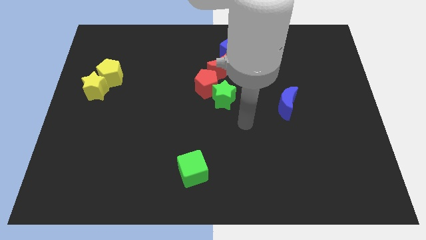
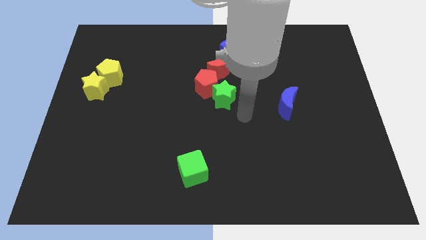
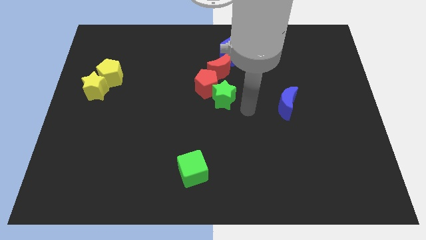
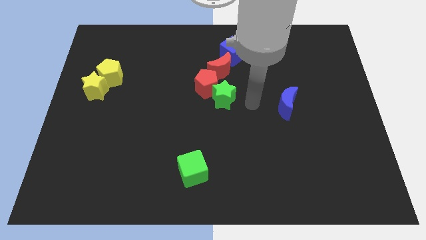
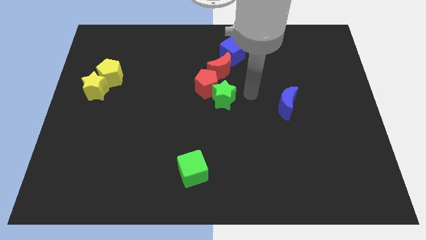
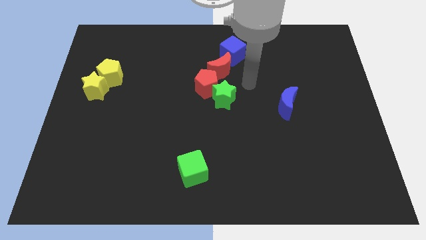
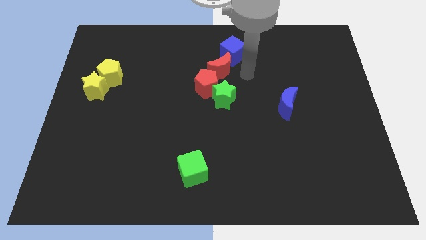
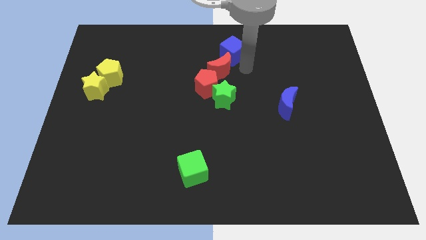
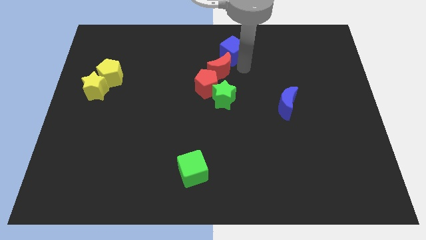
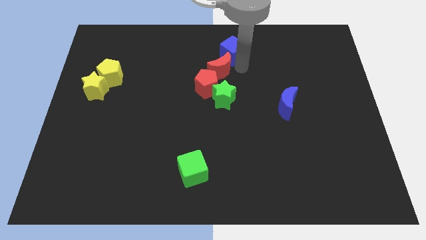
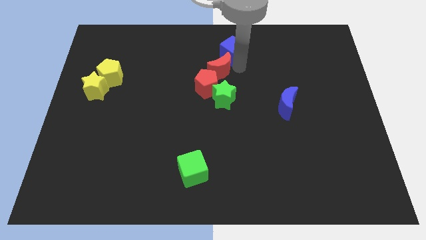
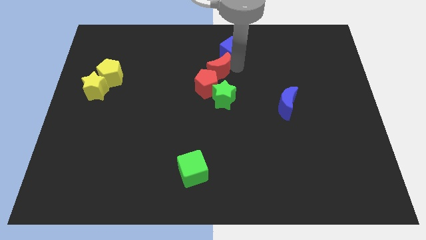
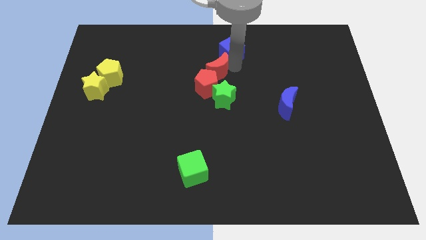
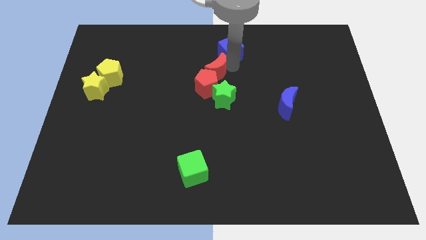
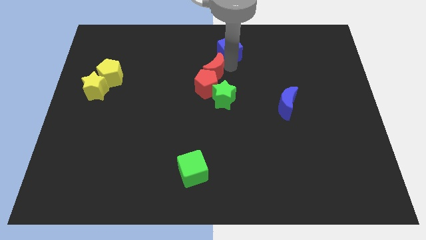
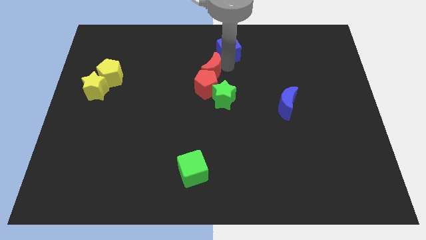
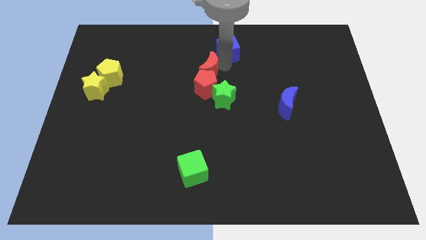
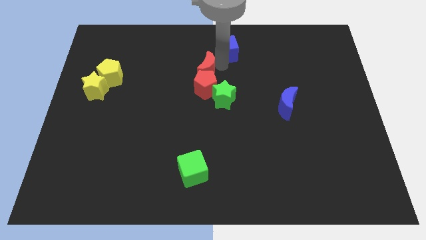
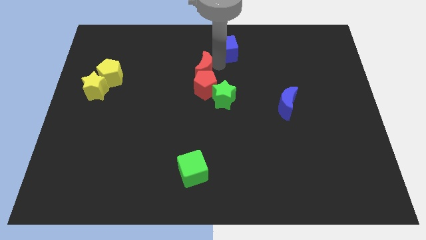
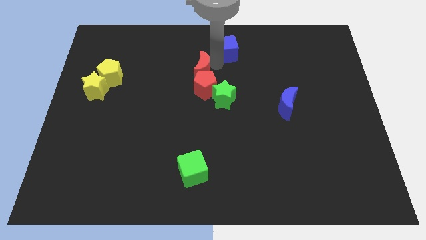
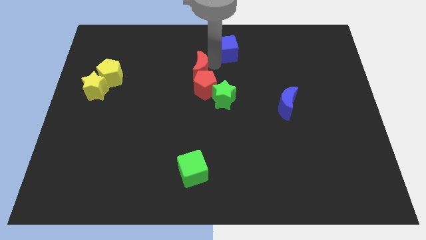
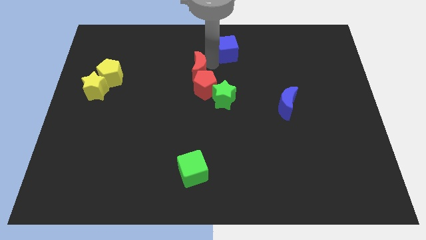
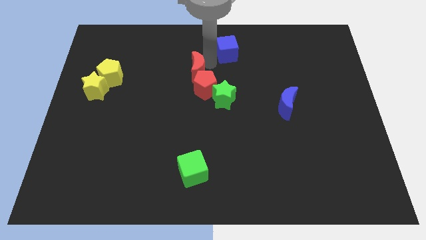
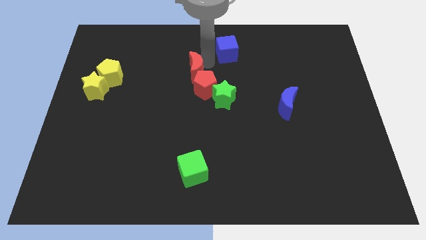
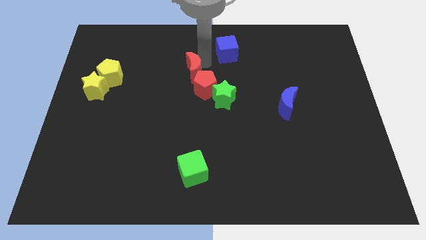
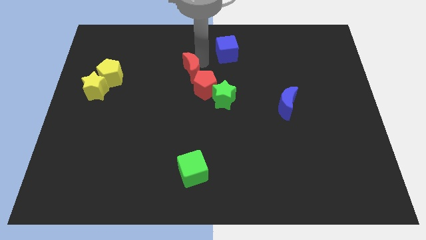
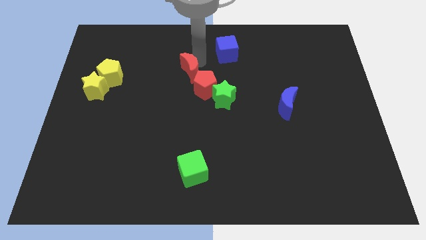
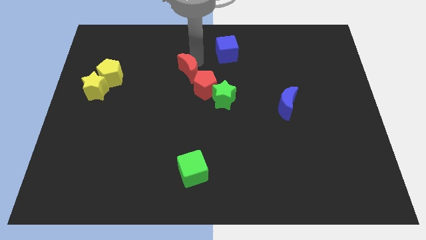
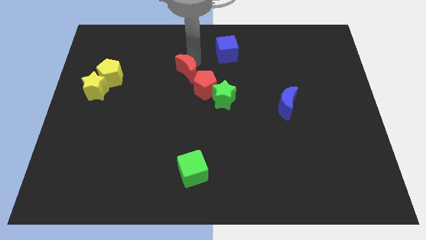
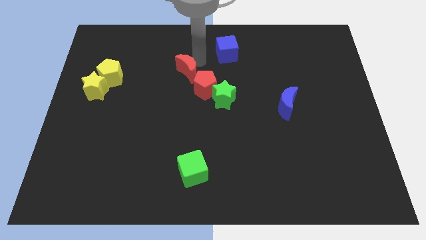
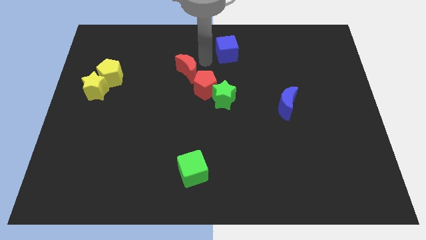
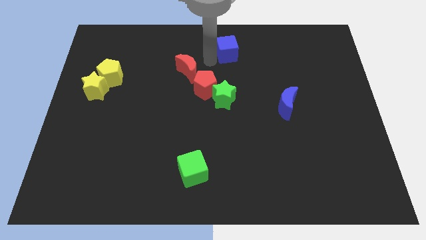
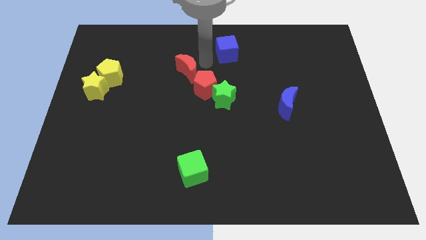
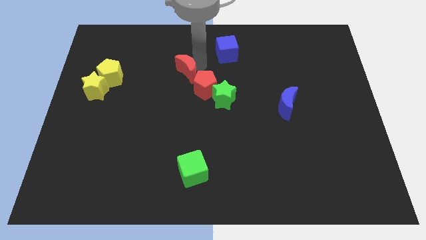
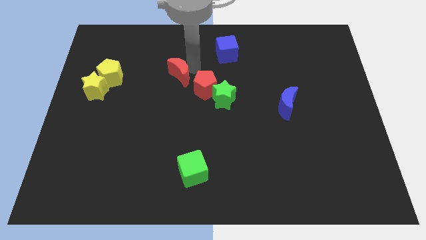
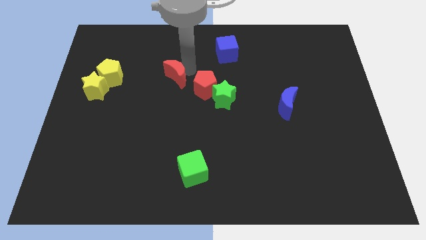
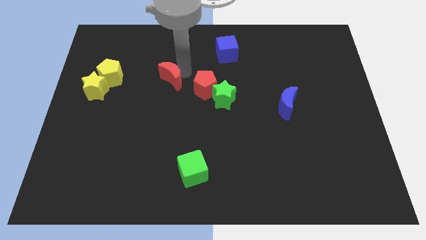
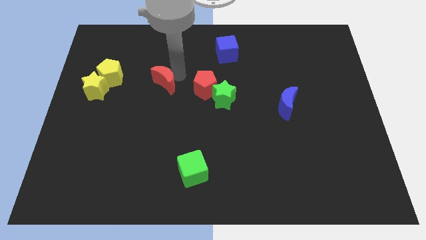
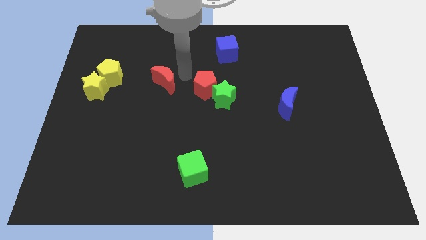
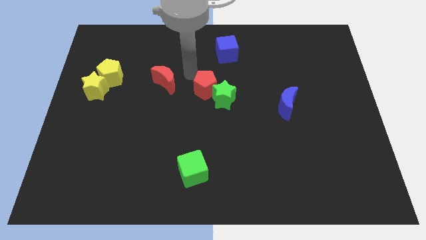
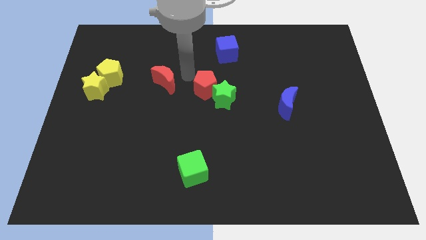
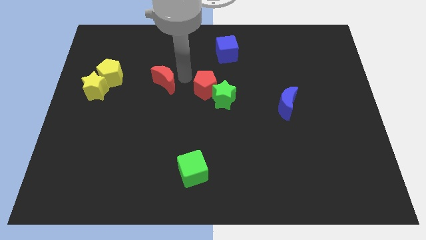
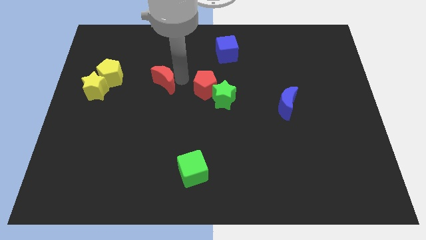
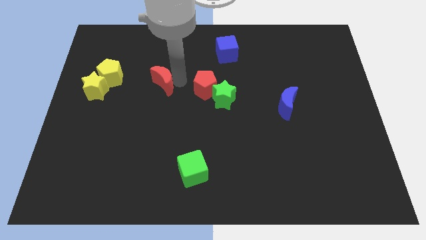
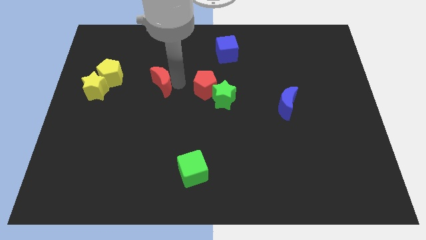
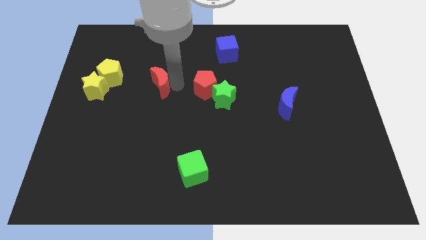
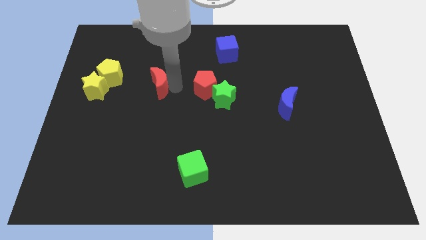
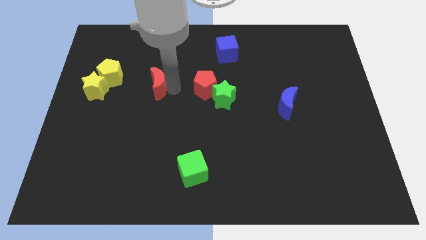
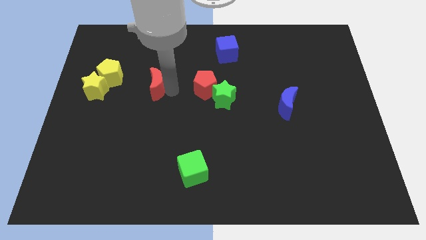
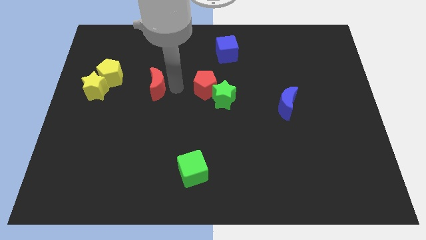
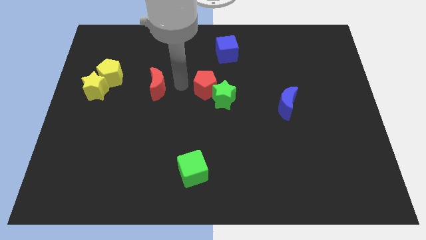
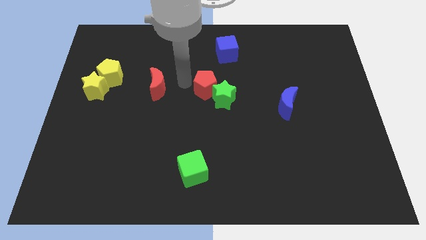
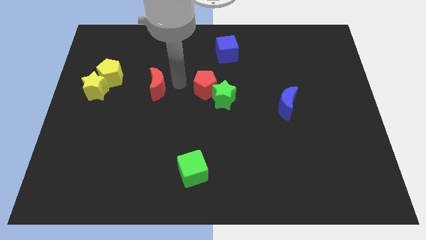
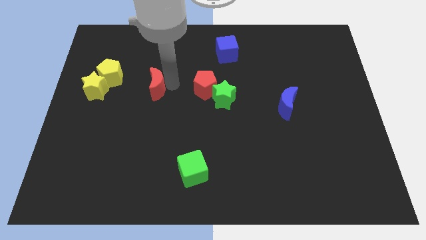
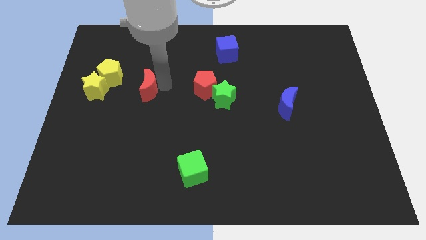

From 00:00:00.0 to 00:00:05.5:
push the red moon to the bottom right side of the yellow pentagon

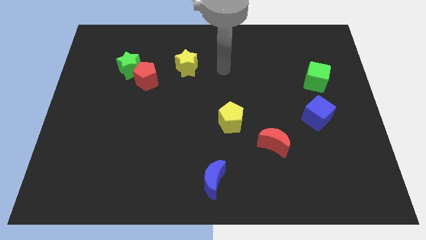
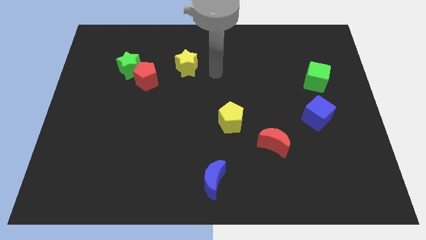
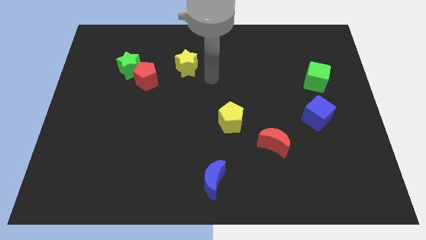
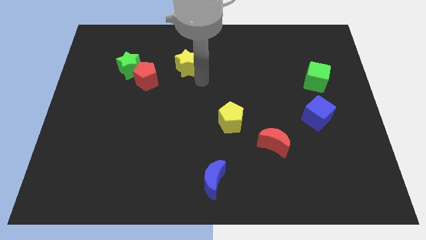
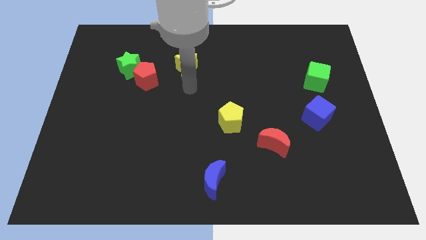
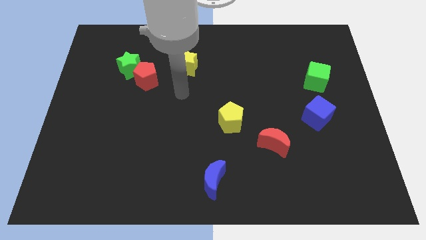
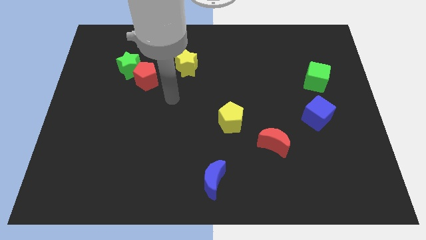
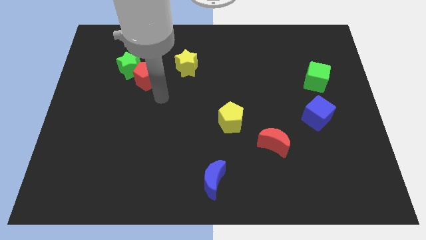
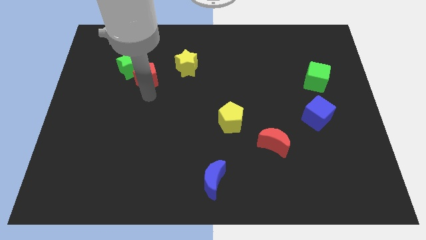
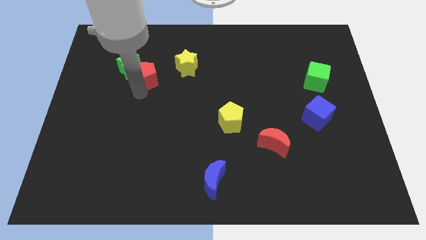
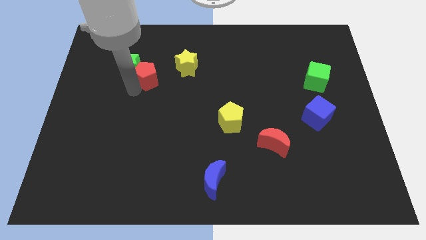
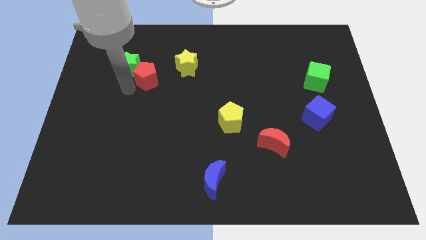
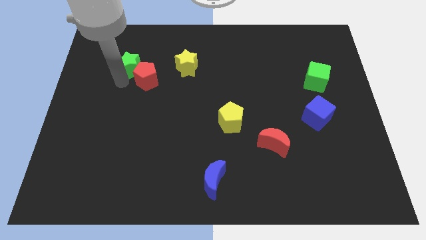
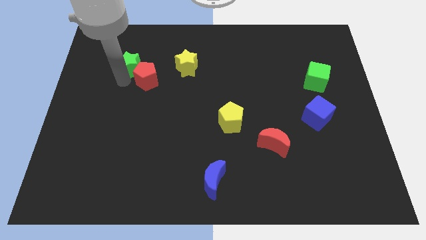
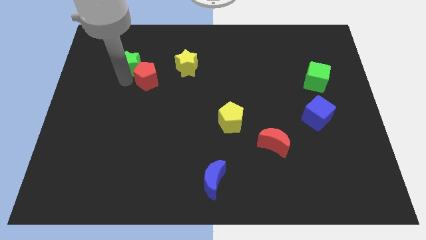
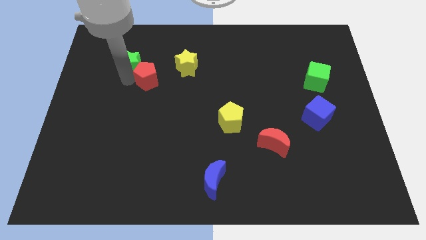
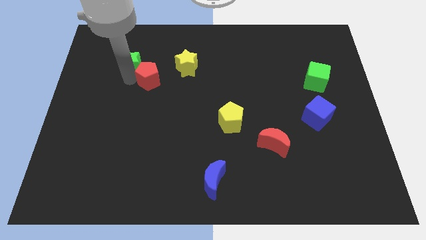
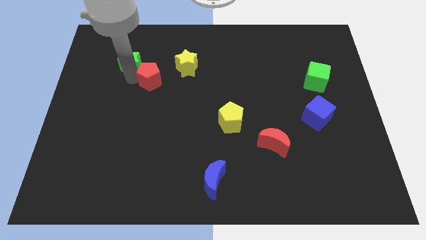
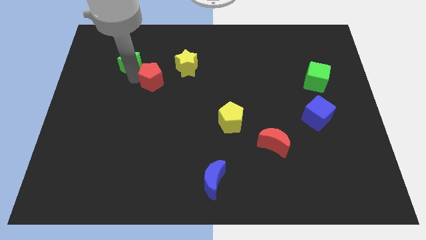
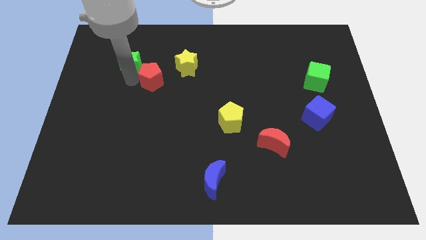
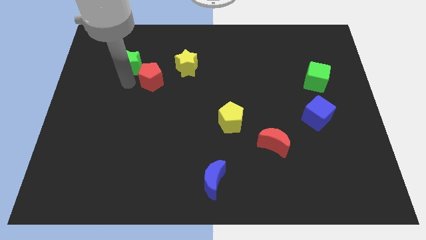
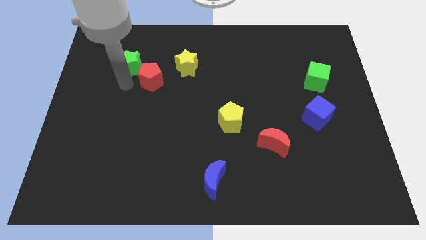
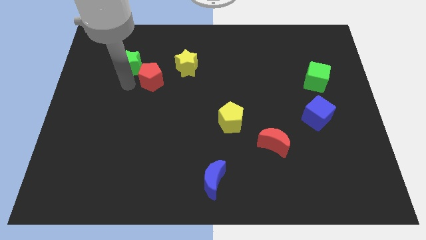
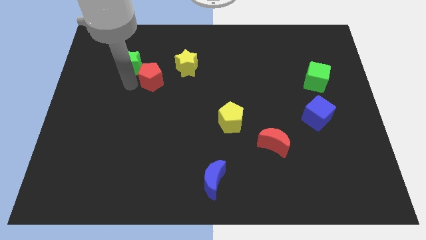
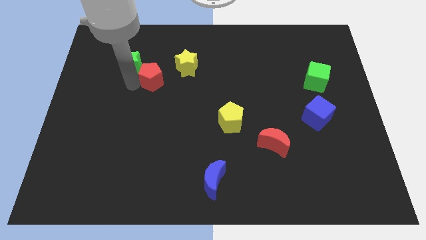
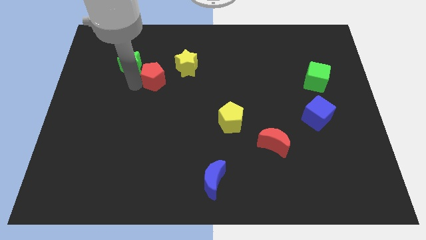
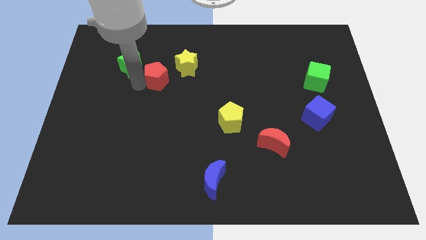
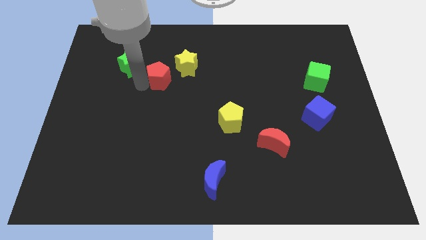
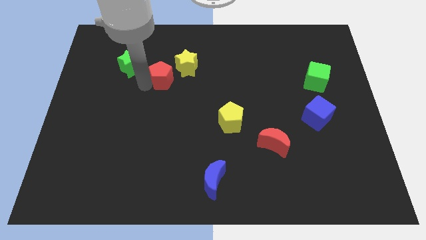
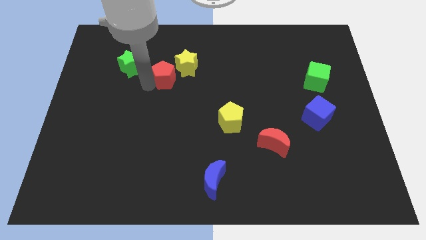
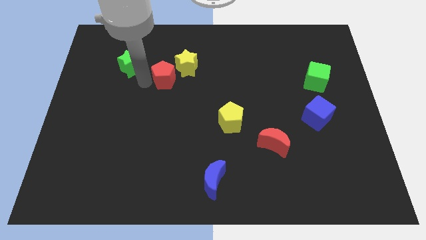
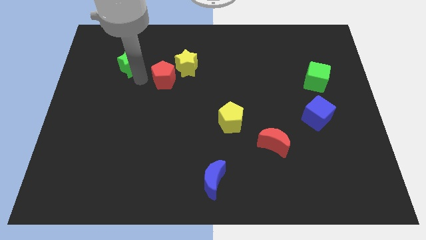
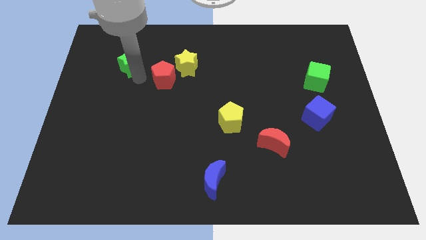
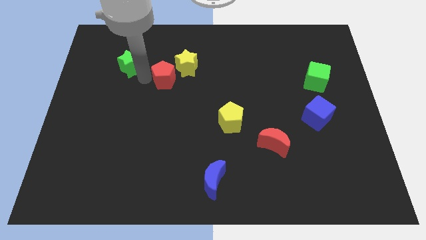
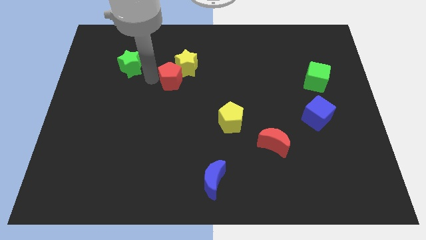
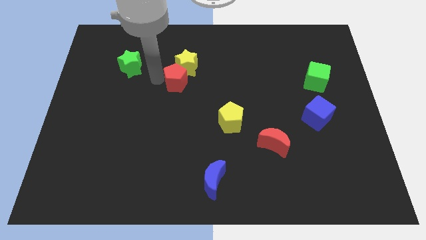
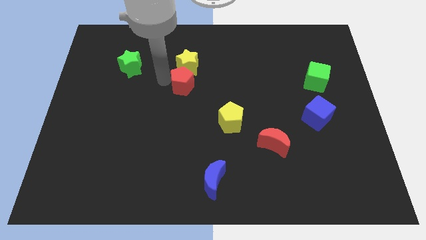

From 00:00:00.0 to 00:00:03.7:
push the red pentagon to the bottom right of the yellow star
